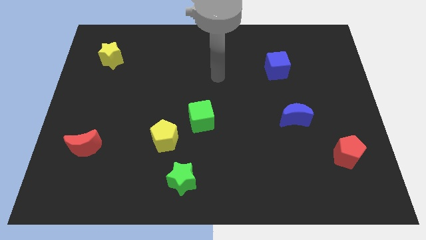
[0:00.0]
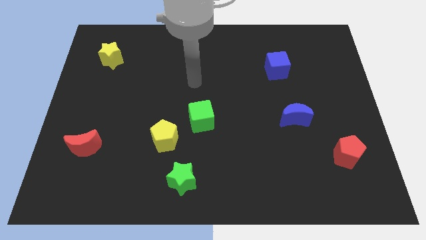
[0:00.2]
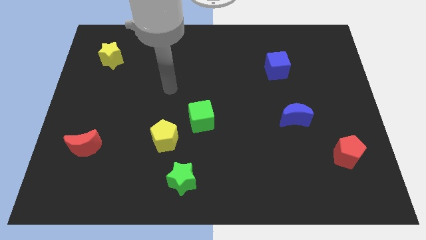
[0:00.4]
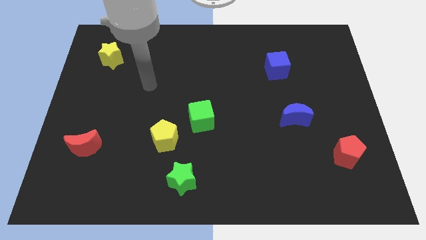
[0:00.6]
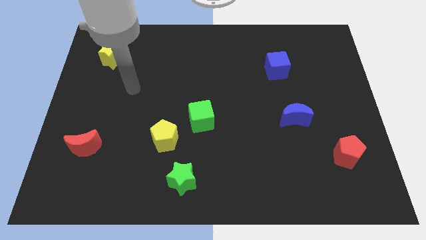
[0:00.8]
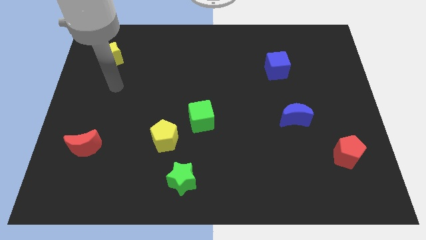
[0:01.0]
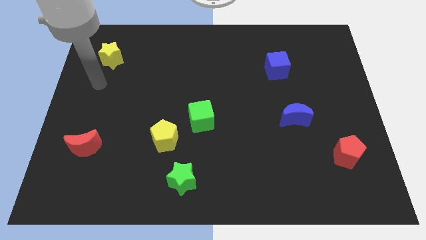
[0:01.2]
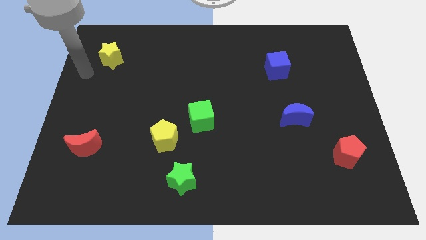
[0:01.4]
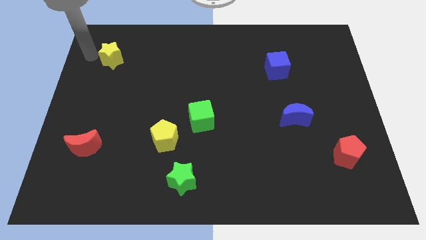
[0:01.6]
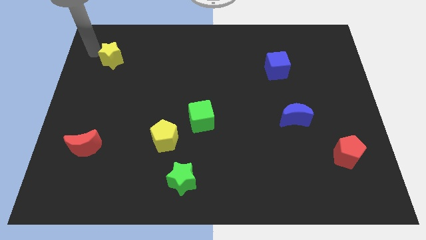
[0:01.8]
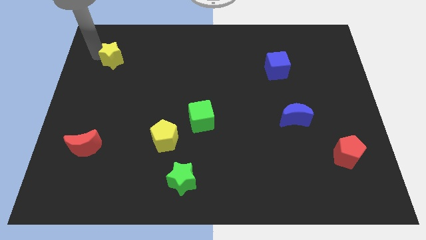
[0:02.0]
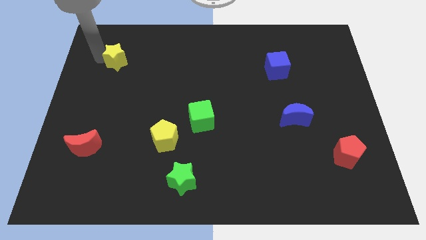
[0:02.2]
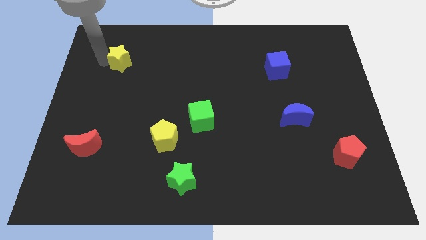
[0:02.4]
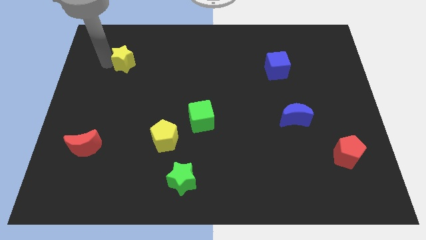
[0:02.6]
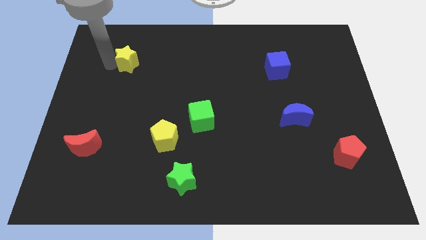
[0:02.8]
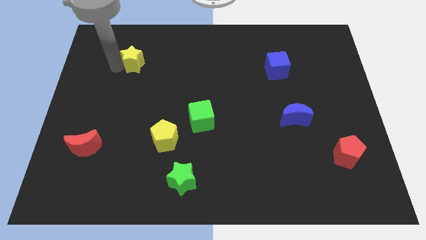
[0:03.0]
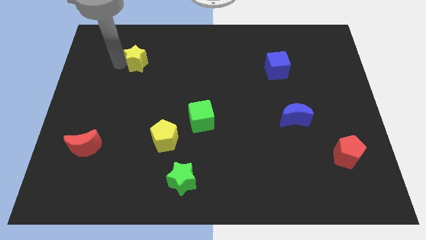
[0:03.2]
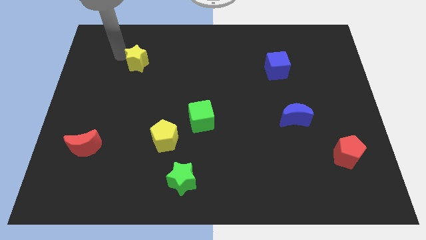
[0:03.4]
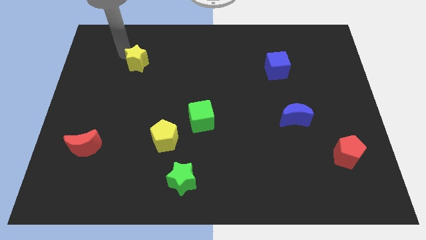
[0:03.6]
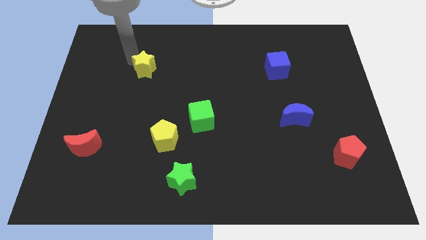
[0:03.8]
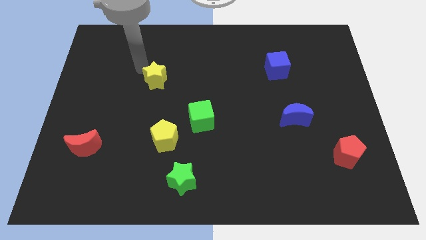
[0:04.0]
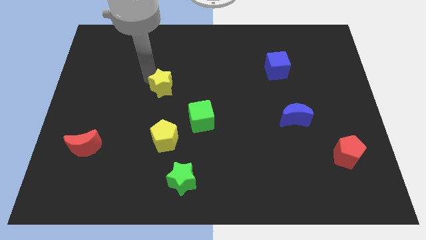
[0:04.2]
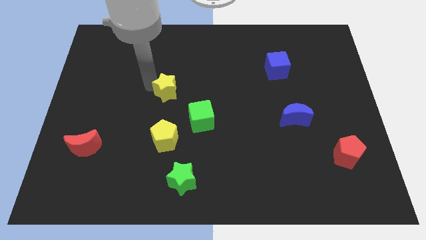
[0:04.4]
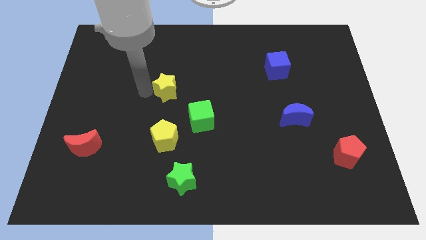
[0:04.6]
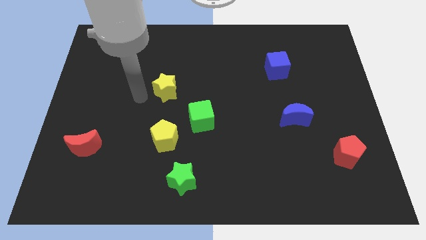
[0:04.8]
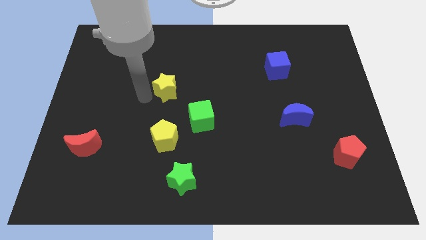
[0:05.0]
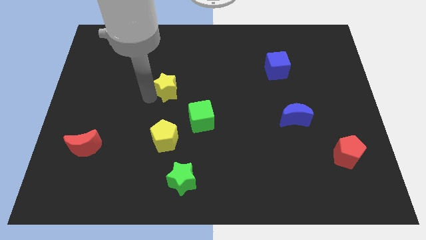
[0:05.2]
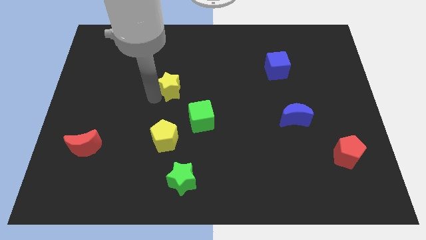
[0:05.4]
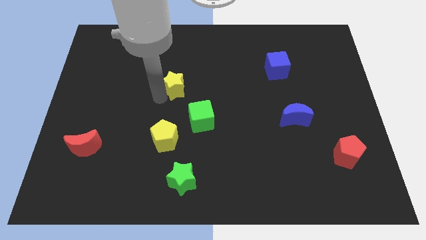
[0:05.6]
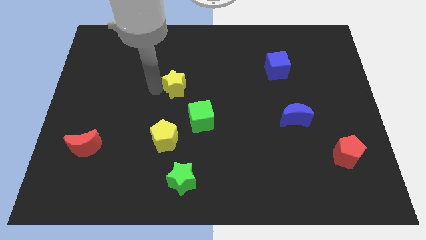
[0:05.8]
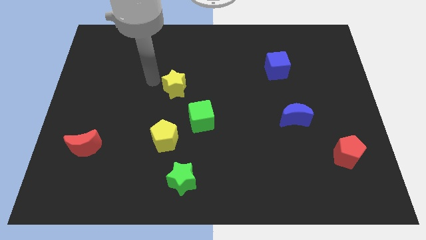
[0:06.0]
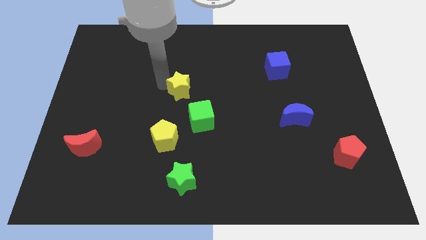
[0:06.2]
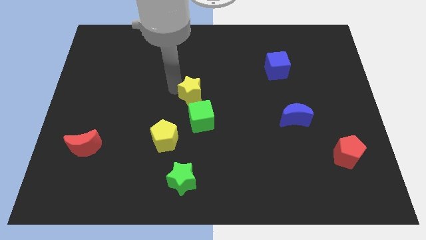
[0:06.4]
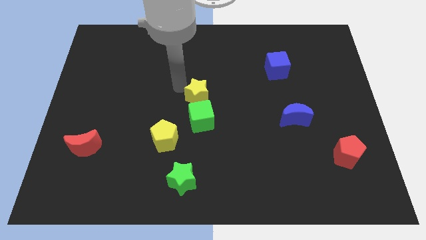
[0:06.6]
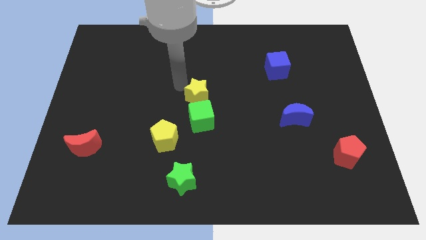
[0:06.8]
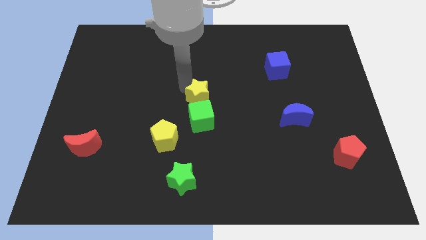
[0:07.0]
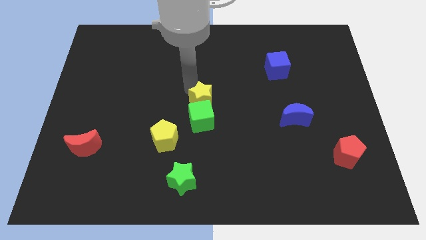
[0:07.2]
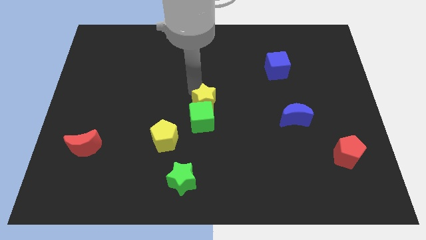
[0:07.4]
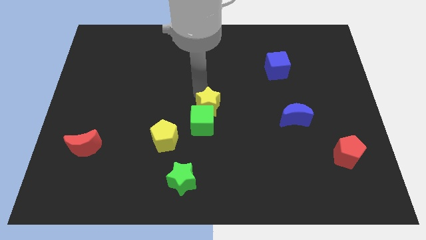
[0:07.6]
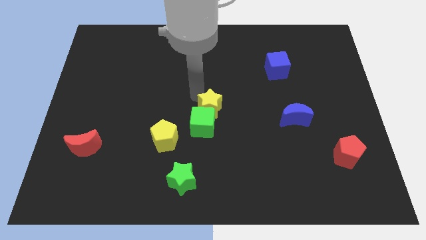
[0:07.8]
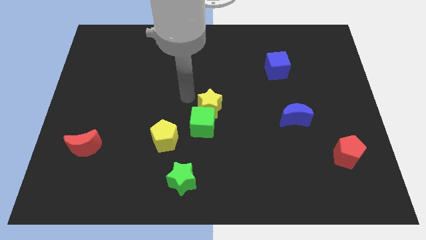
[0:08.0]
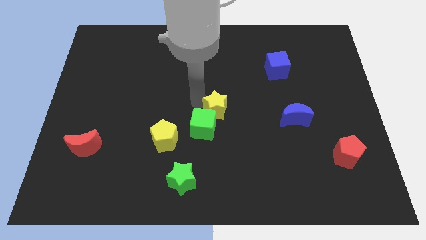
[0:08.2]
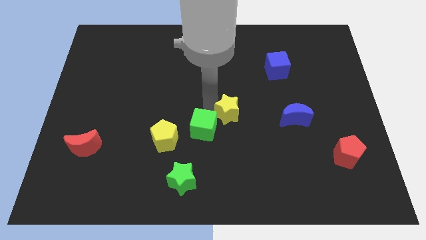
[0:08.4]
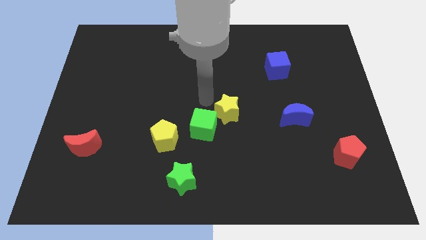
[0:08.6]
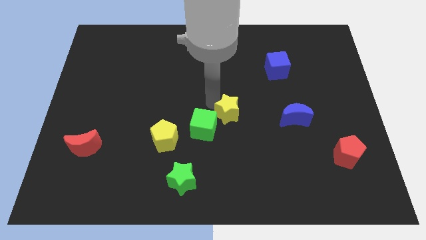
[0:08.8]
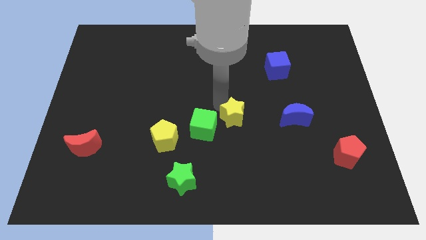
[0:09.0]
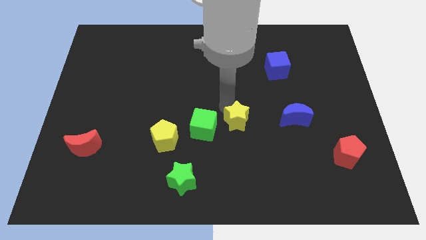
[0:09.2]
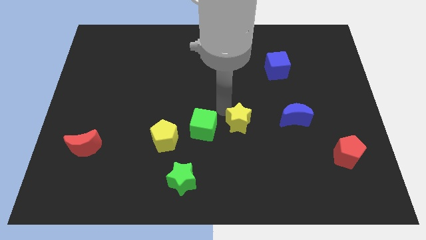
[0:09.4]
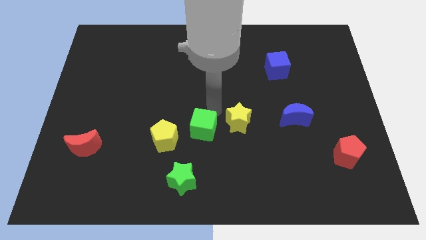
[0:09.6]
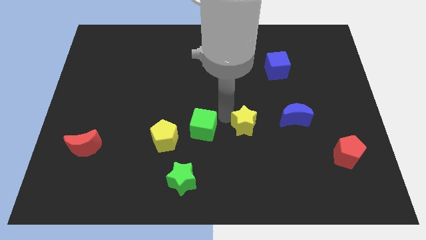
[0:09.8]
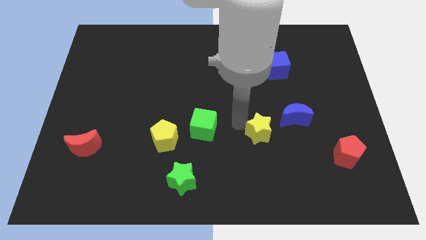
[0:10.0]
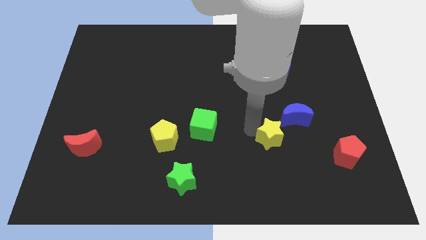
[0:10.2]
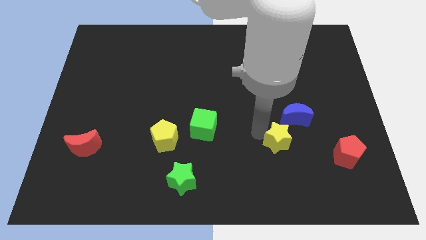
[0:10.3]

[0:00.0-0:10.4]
push the yellow star to the left side of the red pentagon

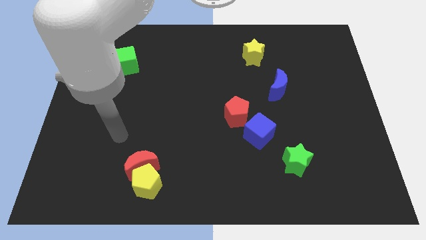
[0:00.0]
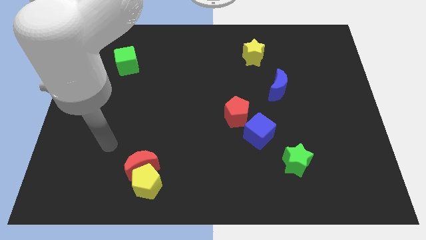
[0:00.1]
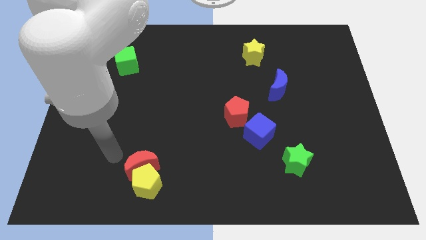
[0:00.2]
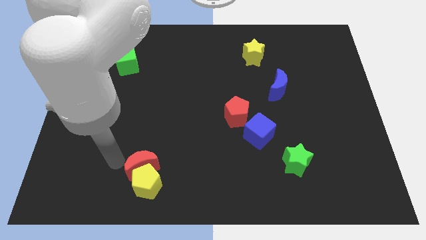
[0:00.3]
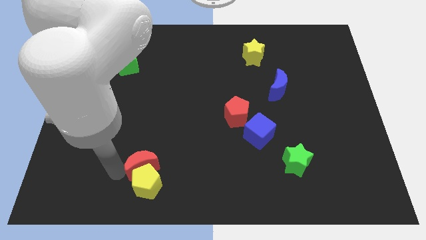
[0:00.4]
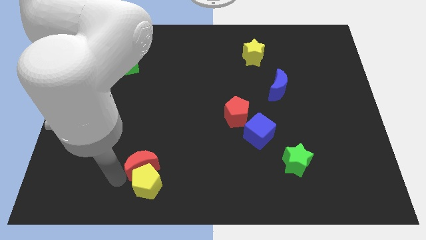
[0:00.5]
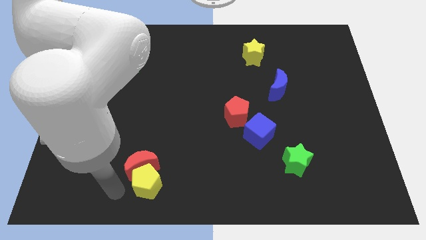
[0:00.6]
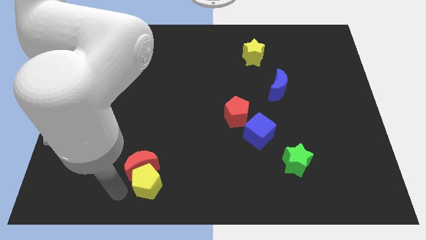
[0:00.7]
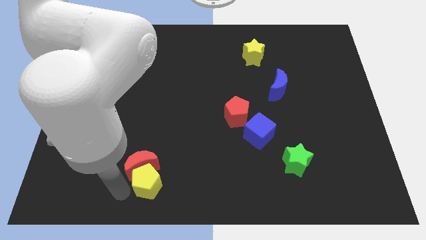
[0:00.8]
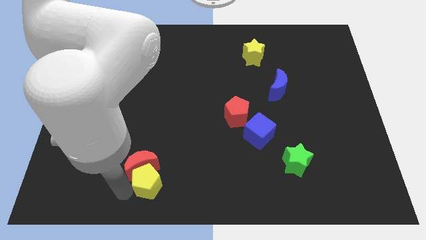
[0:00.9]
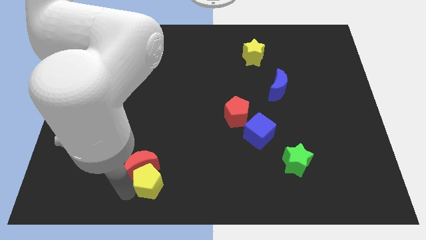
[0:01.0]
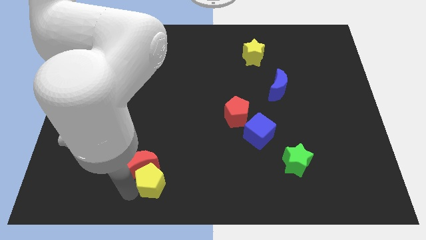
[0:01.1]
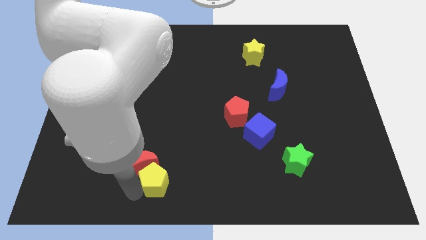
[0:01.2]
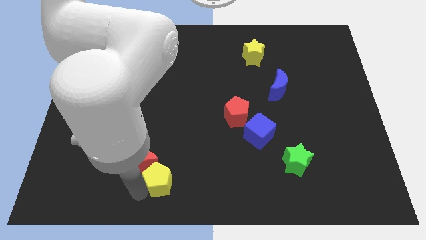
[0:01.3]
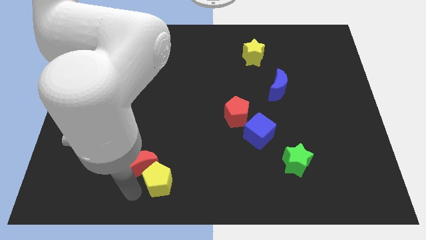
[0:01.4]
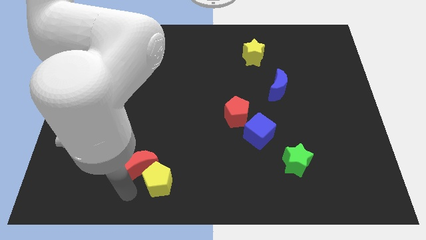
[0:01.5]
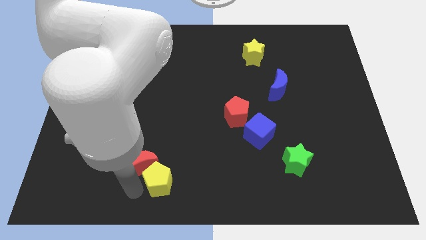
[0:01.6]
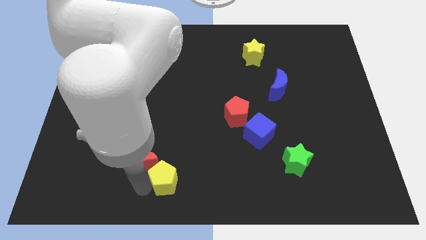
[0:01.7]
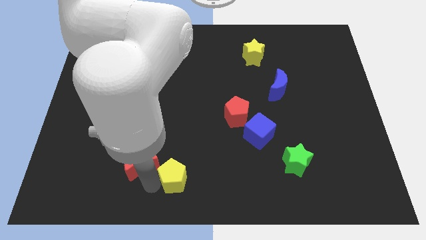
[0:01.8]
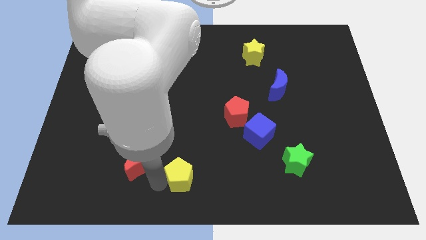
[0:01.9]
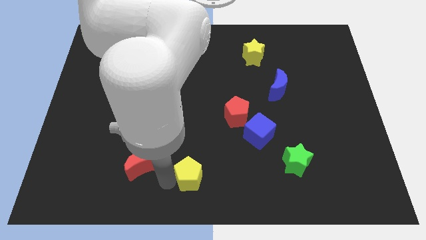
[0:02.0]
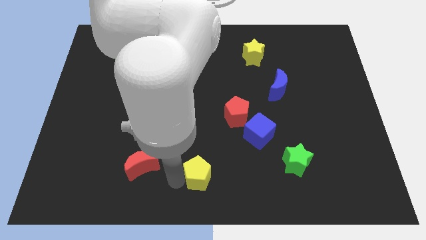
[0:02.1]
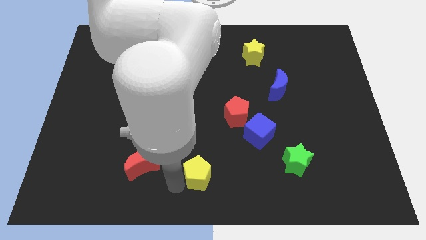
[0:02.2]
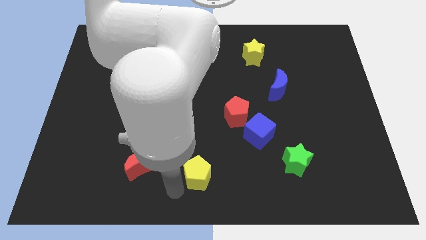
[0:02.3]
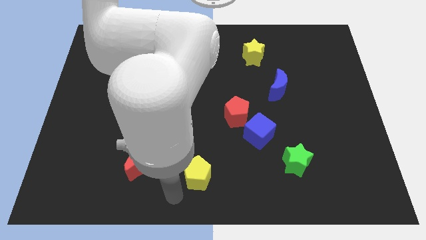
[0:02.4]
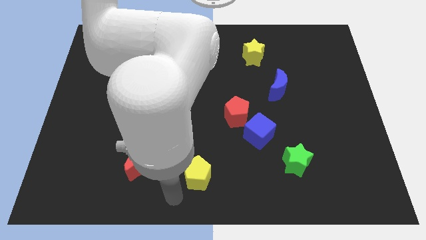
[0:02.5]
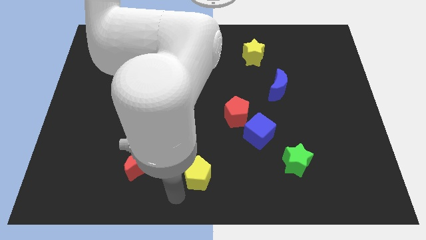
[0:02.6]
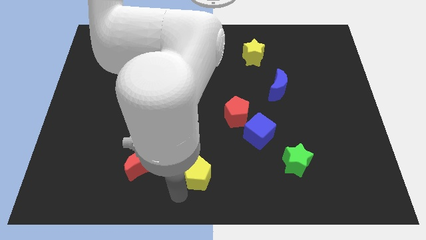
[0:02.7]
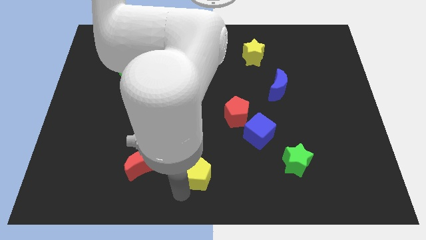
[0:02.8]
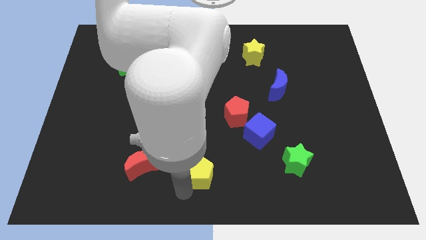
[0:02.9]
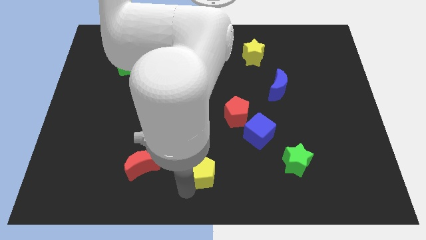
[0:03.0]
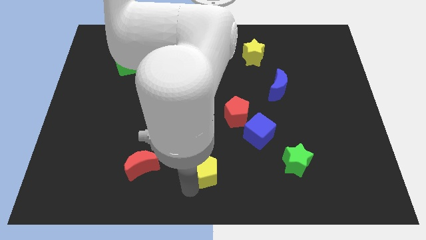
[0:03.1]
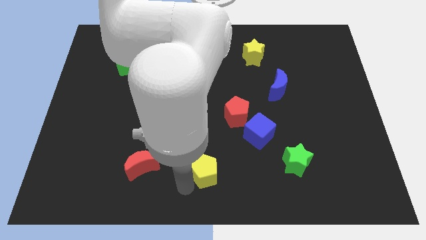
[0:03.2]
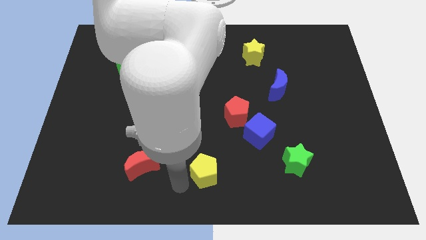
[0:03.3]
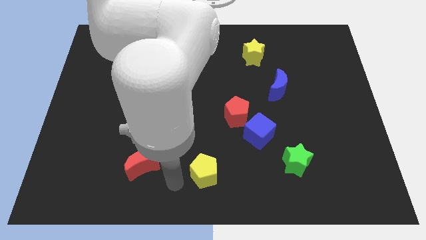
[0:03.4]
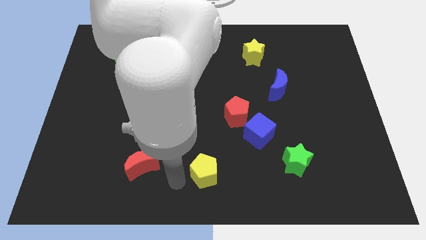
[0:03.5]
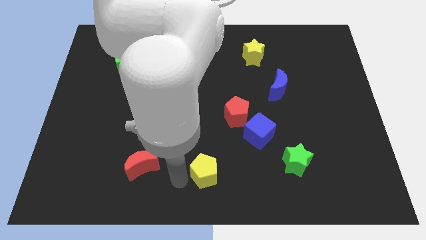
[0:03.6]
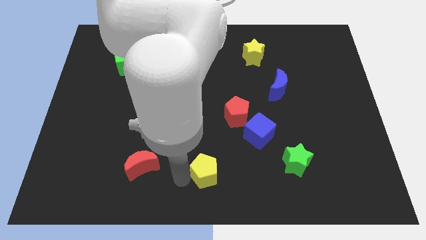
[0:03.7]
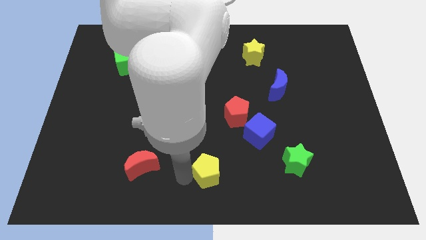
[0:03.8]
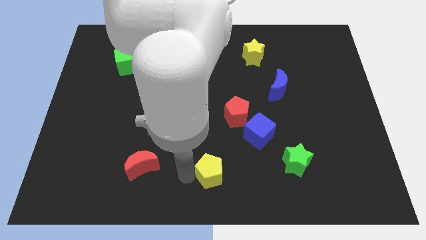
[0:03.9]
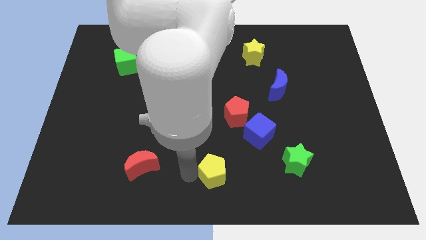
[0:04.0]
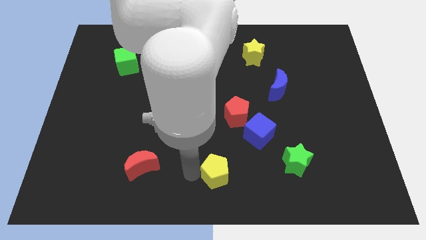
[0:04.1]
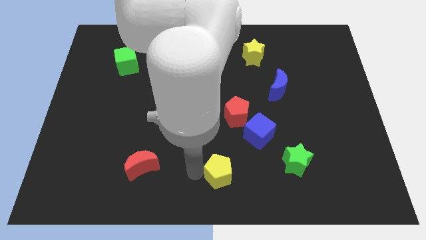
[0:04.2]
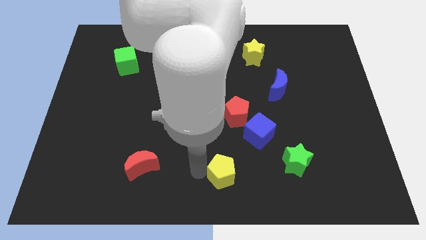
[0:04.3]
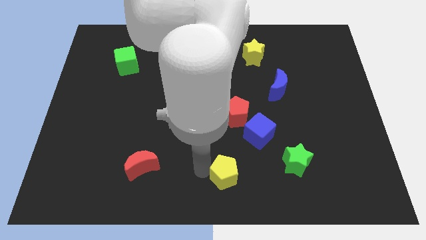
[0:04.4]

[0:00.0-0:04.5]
move the yellow pentagon to the left side of the green star
